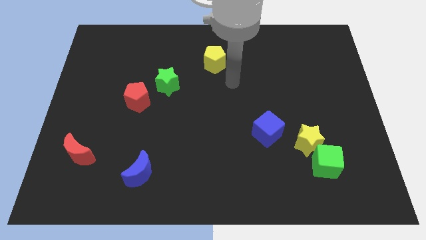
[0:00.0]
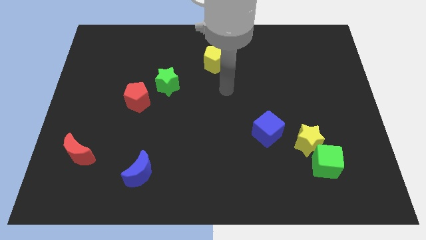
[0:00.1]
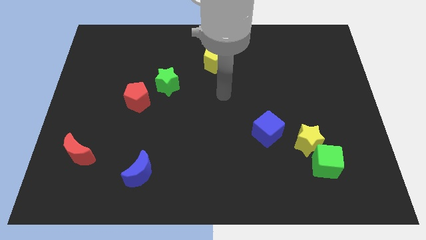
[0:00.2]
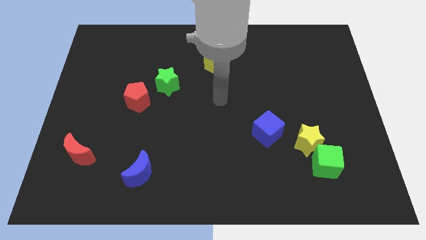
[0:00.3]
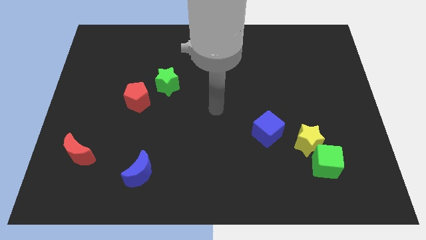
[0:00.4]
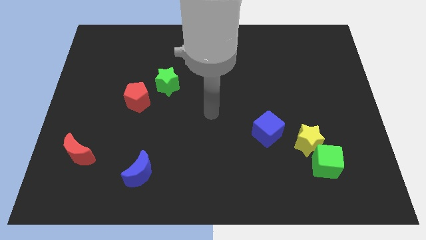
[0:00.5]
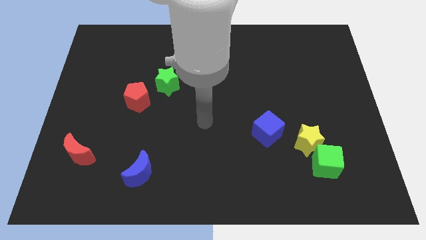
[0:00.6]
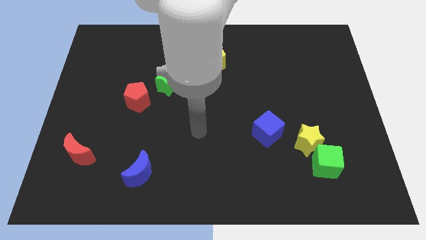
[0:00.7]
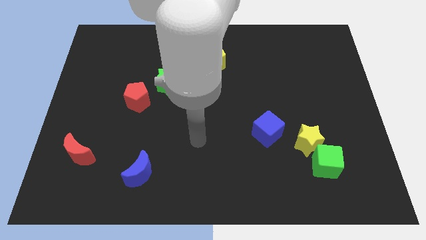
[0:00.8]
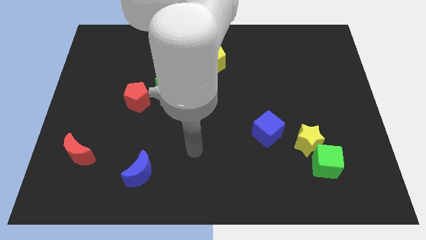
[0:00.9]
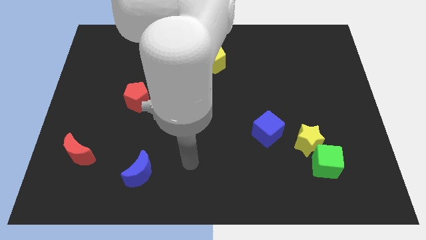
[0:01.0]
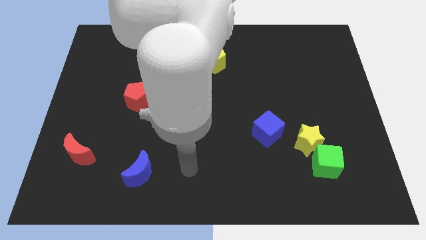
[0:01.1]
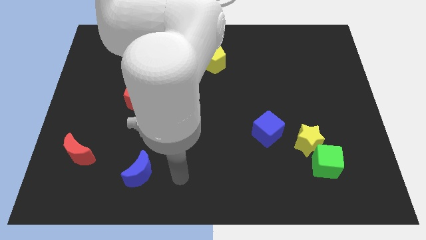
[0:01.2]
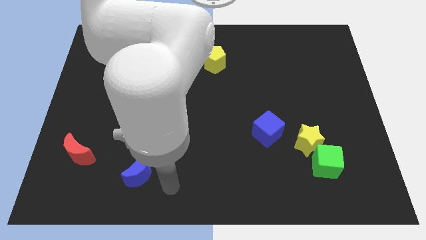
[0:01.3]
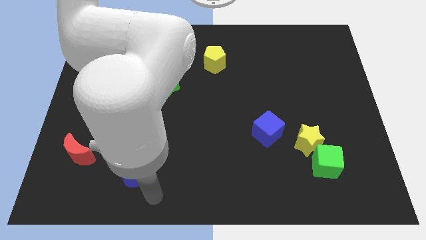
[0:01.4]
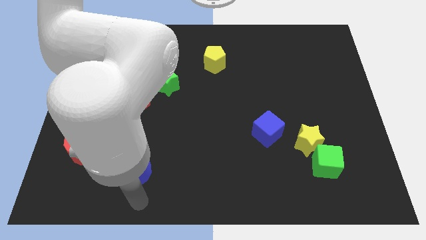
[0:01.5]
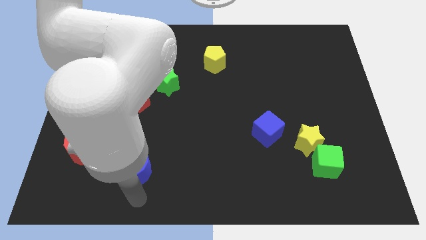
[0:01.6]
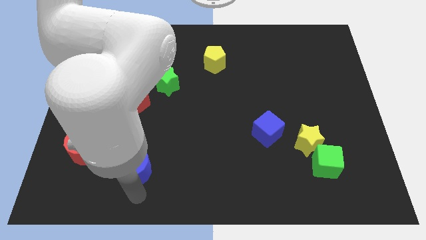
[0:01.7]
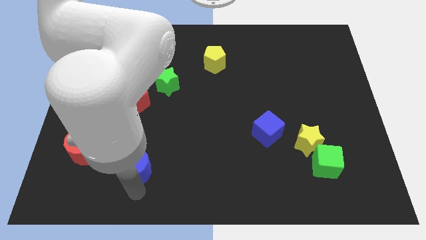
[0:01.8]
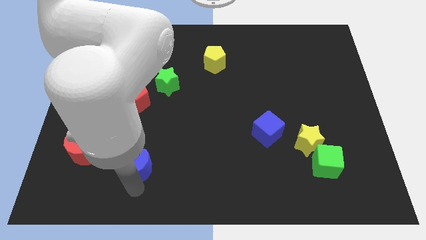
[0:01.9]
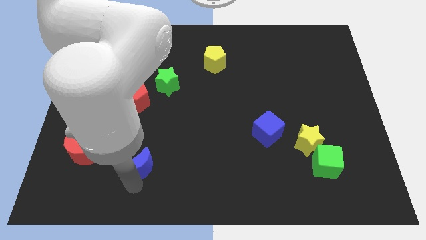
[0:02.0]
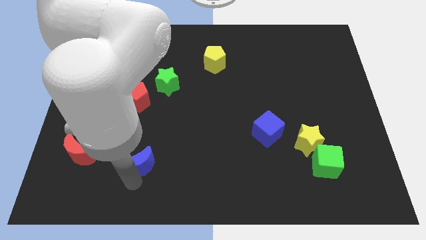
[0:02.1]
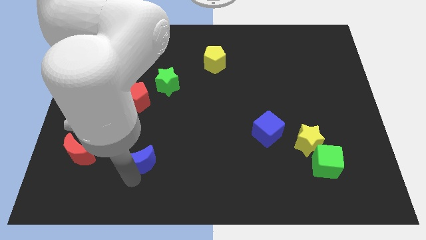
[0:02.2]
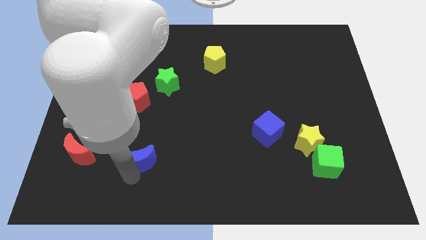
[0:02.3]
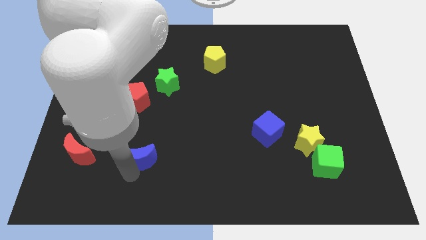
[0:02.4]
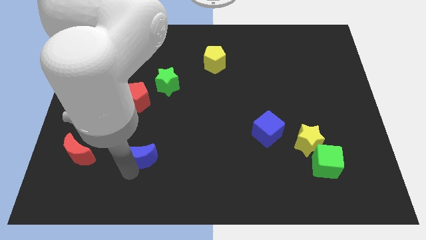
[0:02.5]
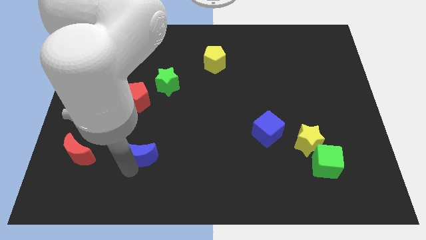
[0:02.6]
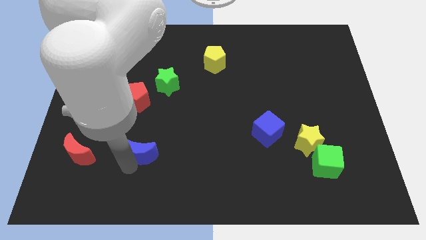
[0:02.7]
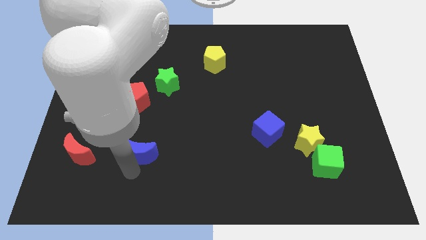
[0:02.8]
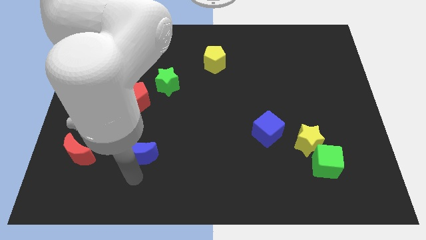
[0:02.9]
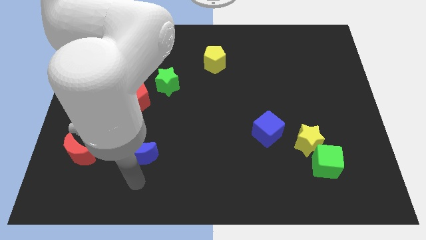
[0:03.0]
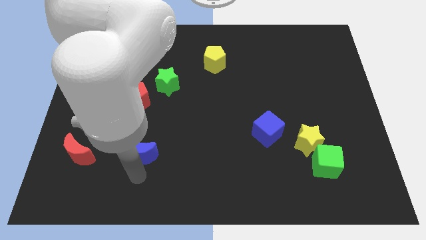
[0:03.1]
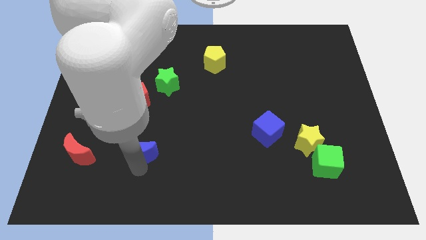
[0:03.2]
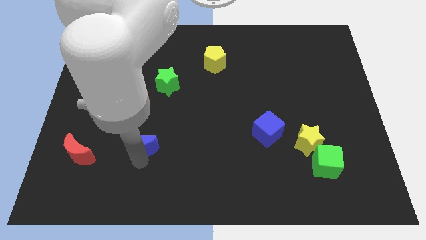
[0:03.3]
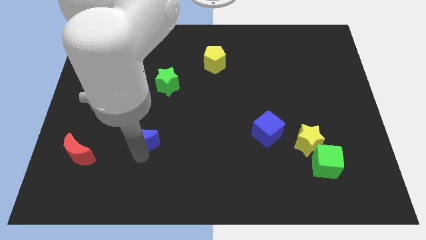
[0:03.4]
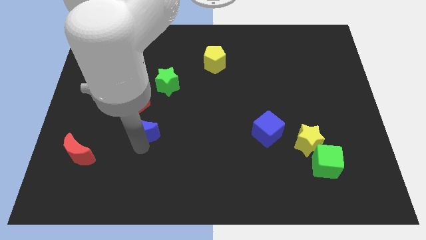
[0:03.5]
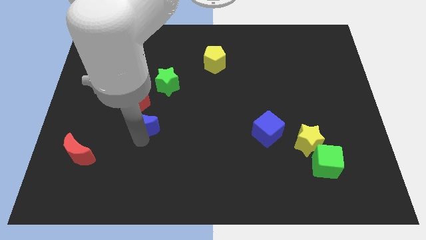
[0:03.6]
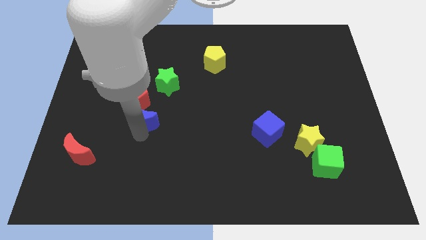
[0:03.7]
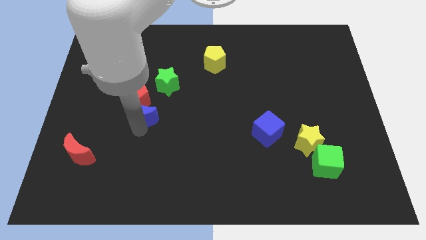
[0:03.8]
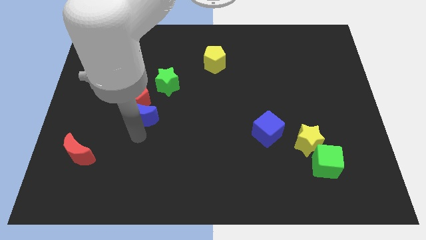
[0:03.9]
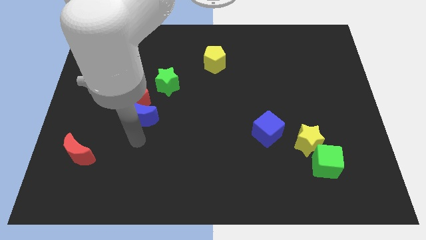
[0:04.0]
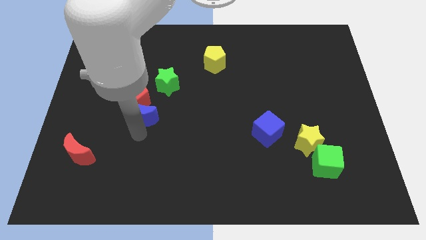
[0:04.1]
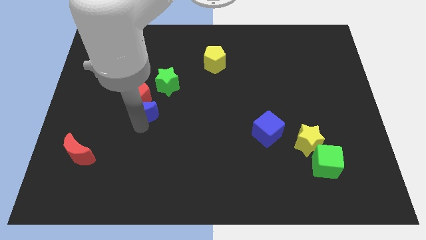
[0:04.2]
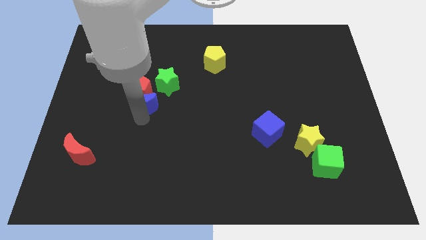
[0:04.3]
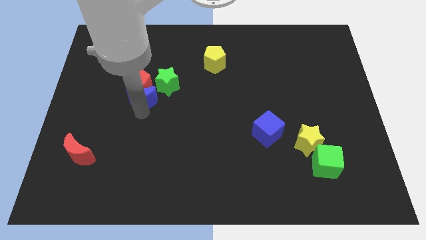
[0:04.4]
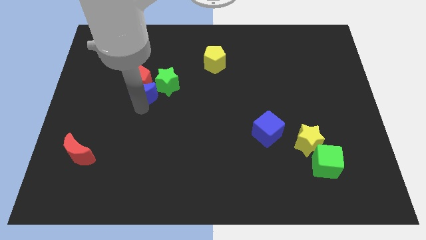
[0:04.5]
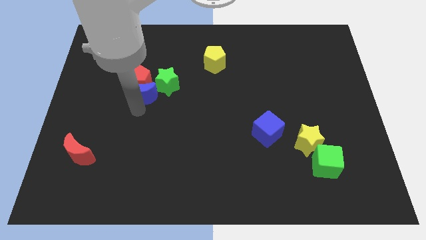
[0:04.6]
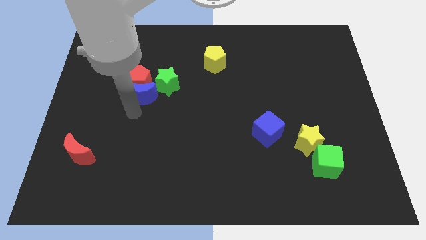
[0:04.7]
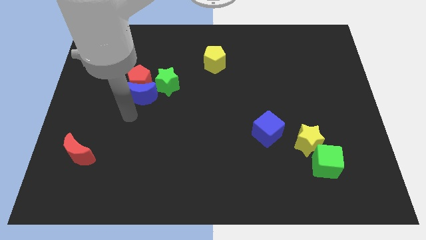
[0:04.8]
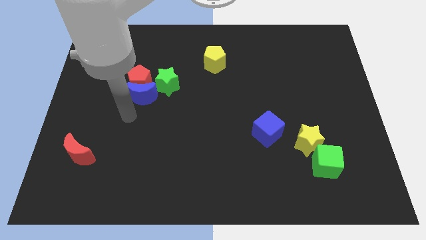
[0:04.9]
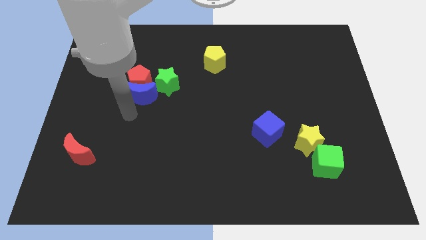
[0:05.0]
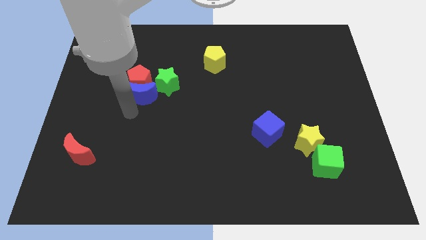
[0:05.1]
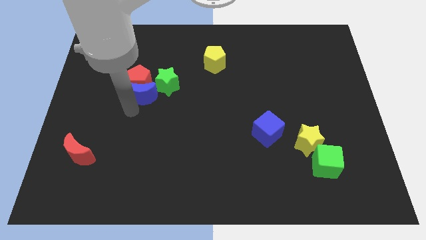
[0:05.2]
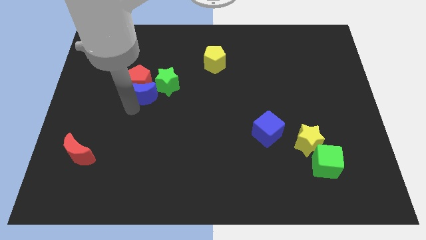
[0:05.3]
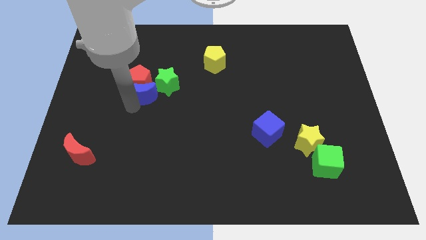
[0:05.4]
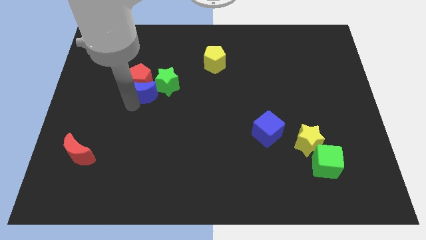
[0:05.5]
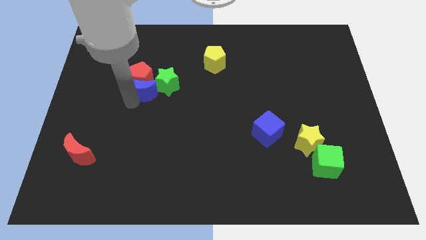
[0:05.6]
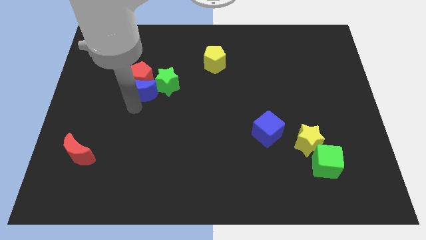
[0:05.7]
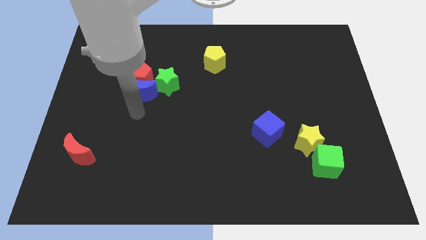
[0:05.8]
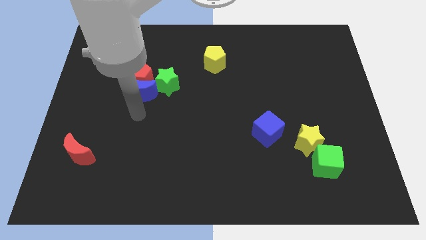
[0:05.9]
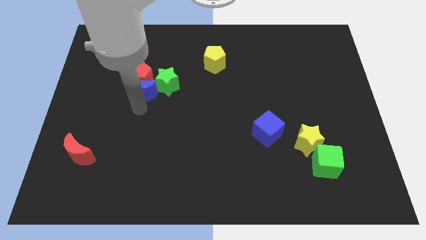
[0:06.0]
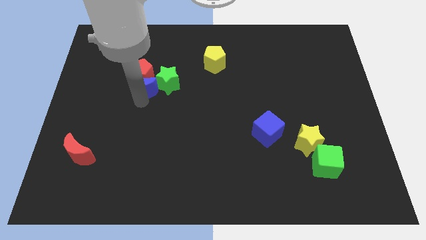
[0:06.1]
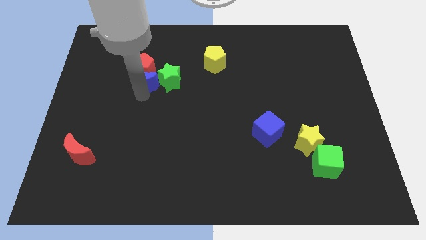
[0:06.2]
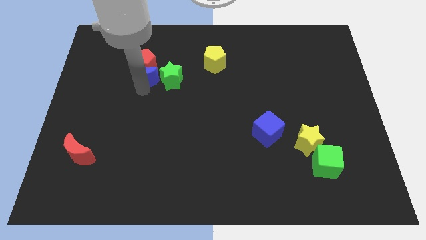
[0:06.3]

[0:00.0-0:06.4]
move the blue moon diagonally up and to the left of the green star

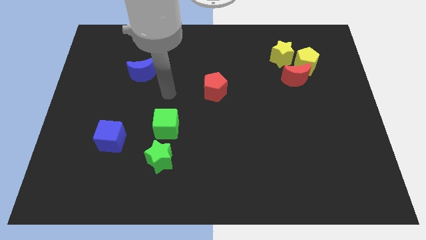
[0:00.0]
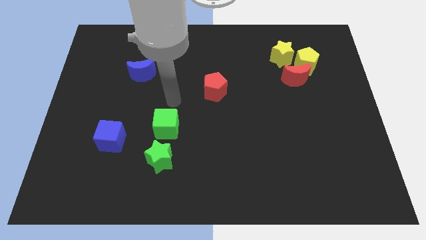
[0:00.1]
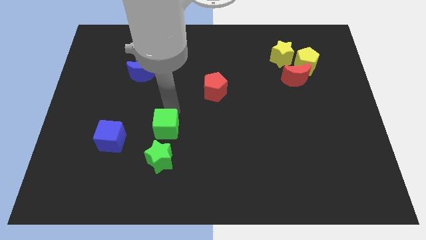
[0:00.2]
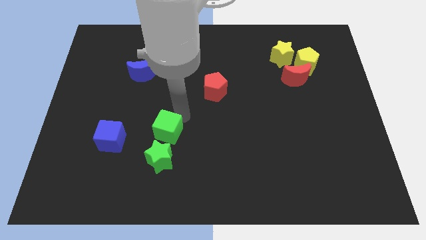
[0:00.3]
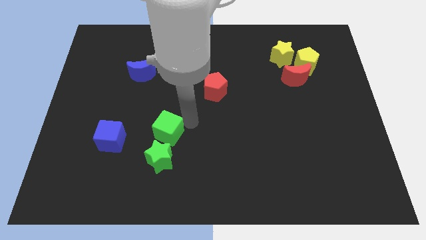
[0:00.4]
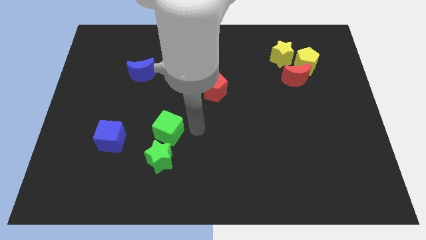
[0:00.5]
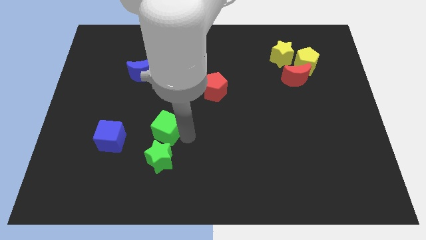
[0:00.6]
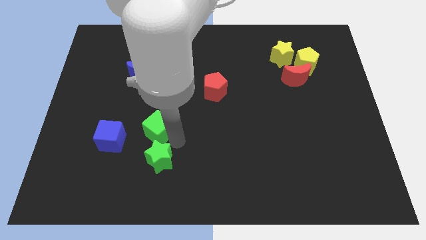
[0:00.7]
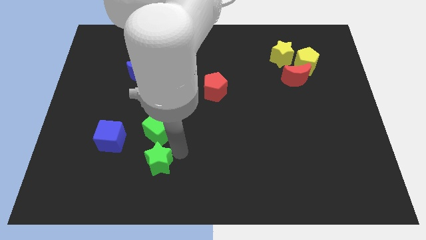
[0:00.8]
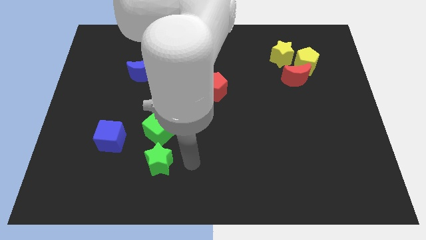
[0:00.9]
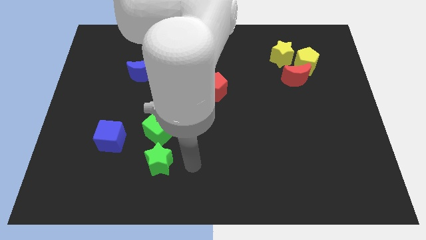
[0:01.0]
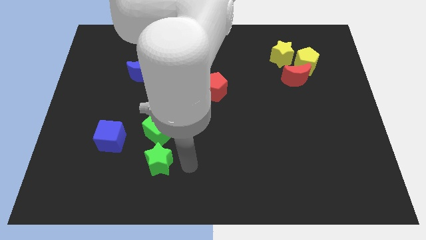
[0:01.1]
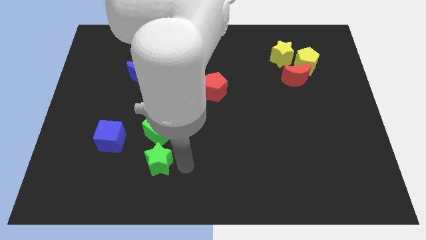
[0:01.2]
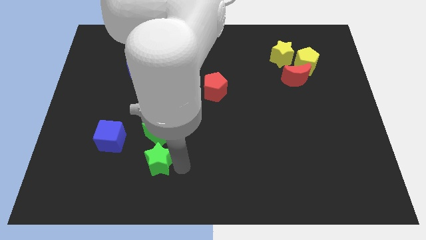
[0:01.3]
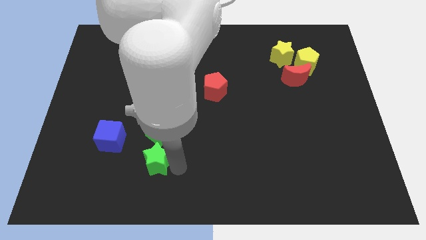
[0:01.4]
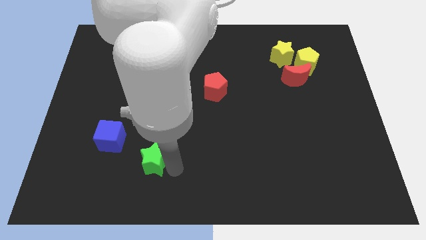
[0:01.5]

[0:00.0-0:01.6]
push the green star to the bottom right of the blue cube
